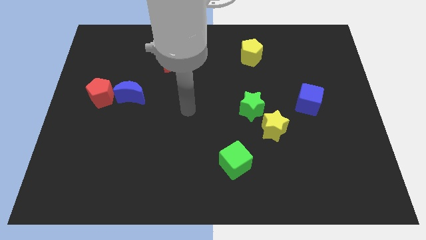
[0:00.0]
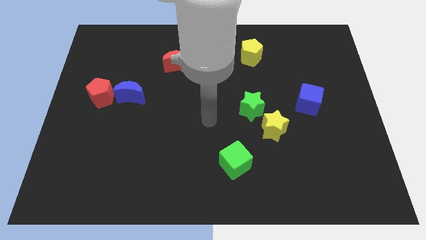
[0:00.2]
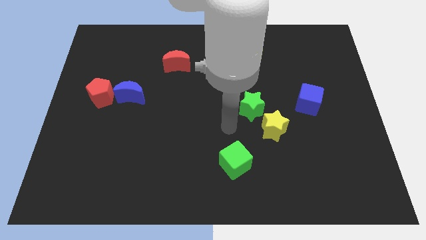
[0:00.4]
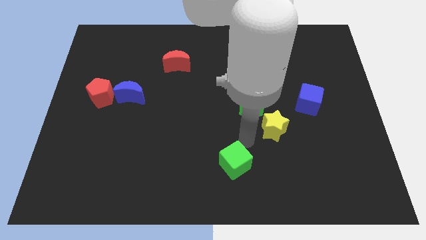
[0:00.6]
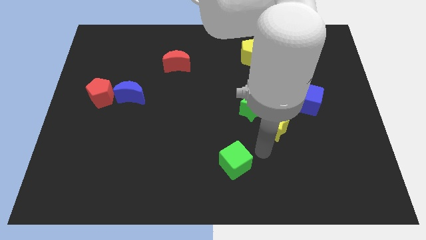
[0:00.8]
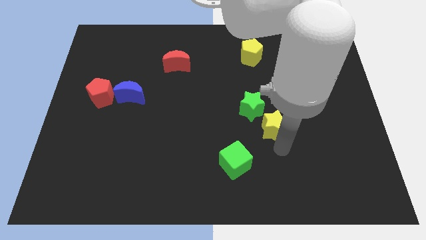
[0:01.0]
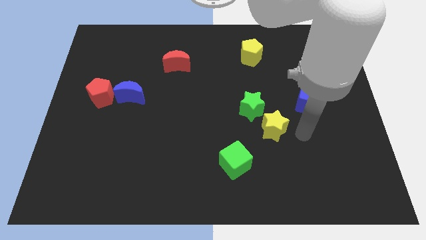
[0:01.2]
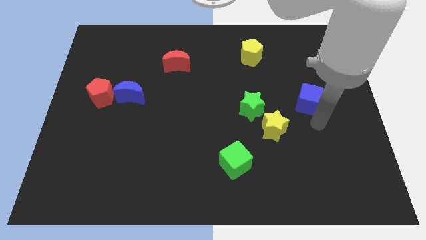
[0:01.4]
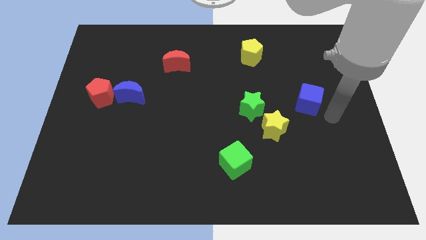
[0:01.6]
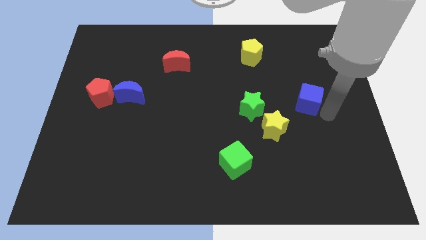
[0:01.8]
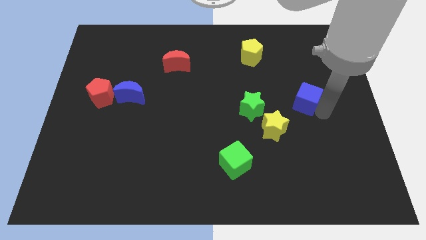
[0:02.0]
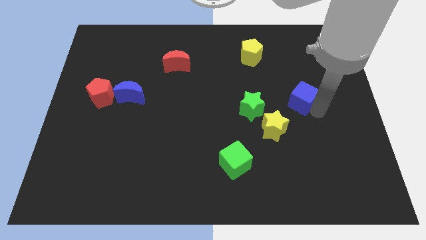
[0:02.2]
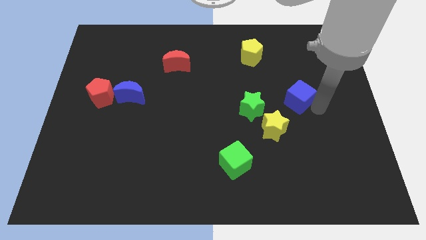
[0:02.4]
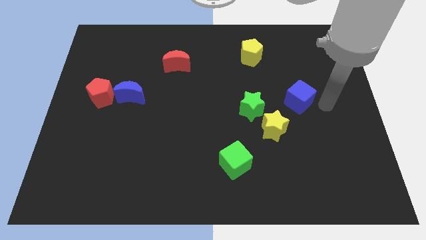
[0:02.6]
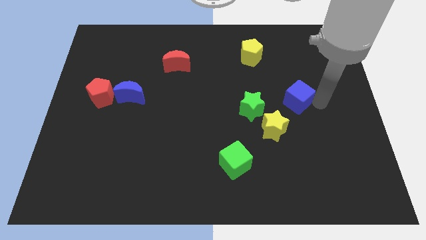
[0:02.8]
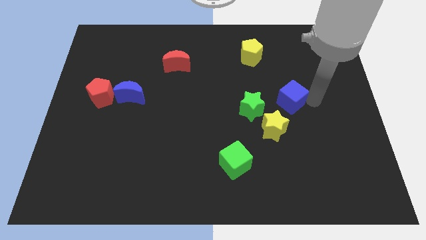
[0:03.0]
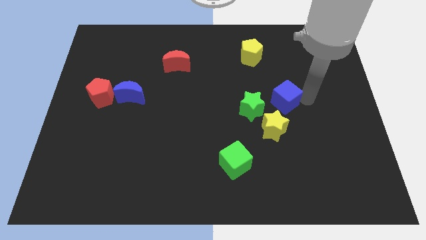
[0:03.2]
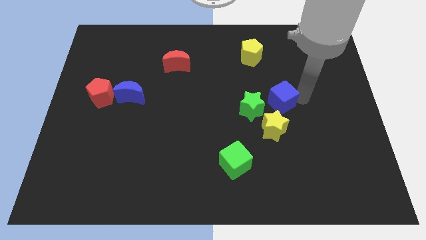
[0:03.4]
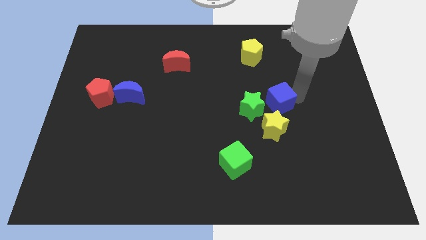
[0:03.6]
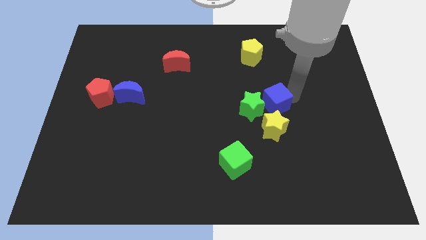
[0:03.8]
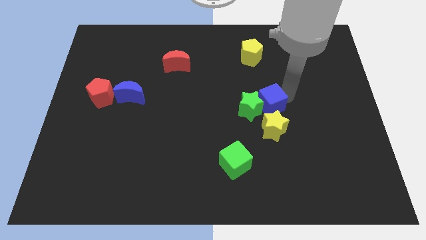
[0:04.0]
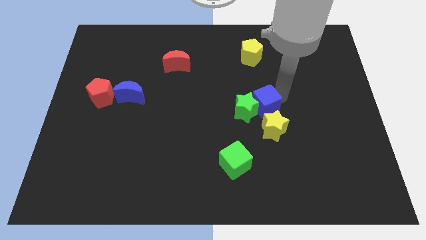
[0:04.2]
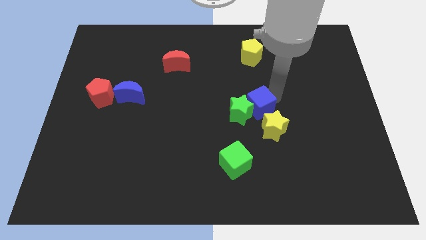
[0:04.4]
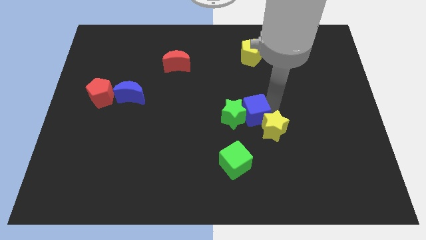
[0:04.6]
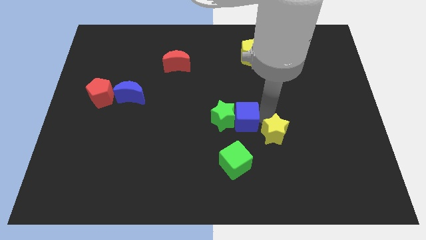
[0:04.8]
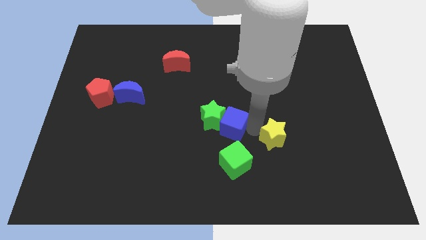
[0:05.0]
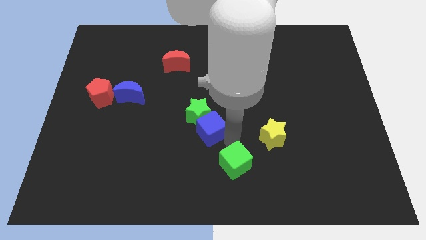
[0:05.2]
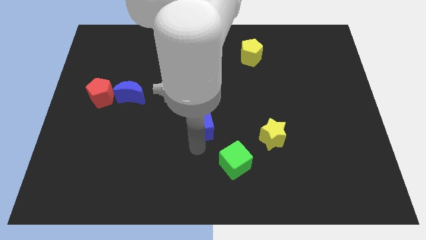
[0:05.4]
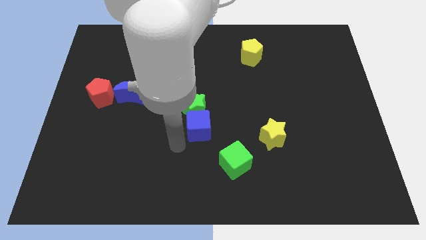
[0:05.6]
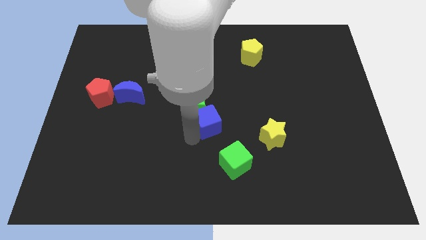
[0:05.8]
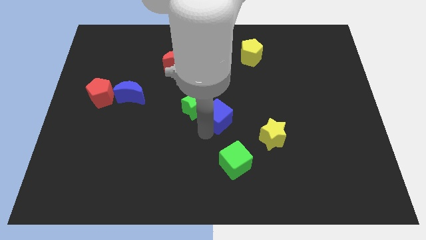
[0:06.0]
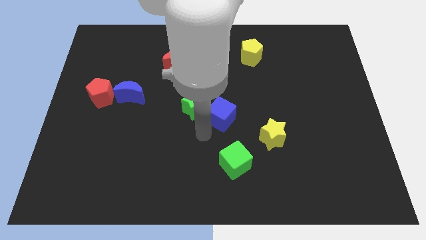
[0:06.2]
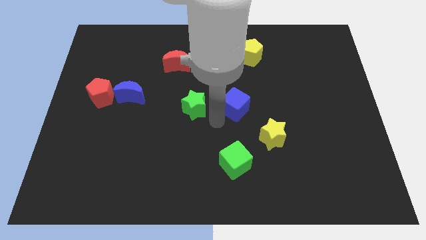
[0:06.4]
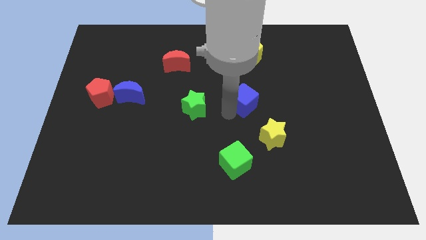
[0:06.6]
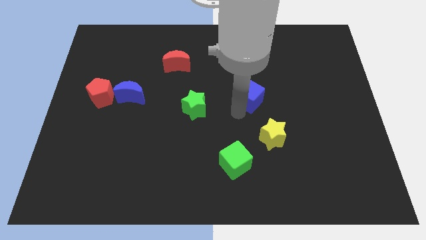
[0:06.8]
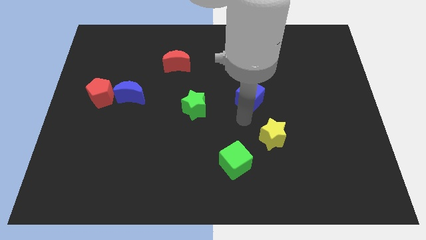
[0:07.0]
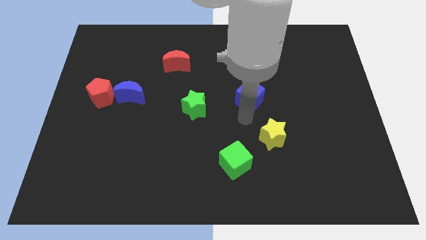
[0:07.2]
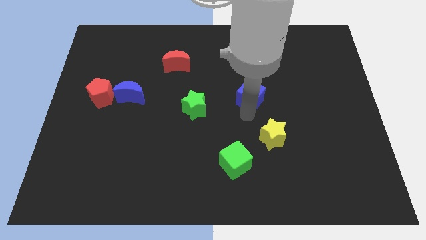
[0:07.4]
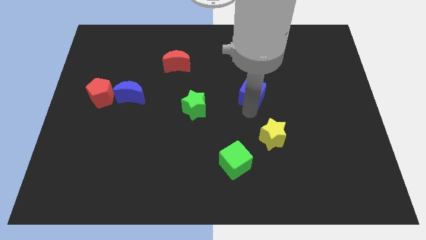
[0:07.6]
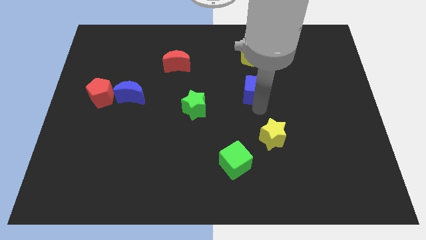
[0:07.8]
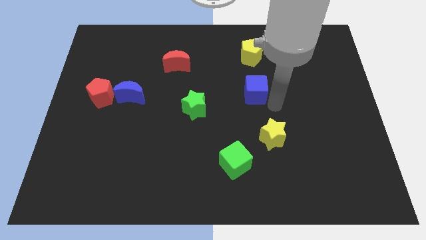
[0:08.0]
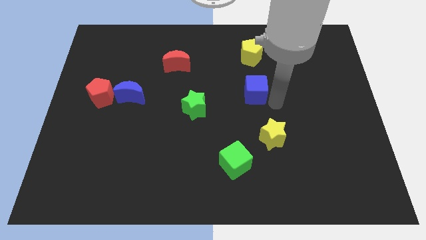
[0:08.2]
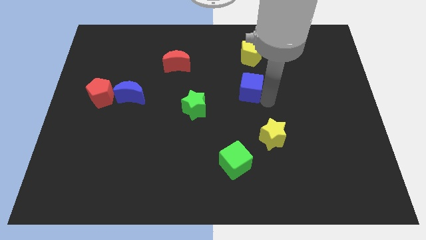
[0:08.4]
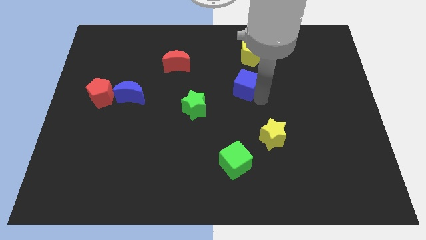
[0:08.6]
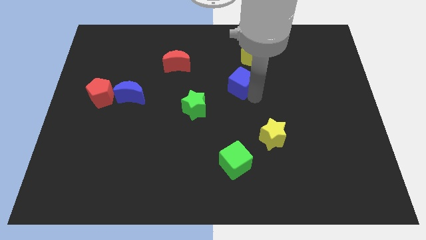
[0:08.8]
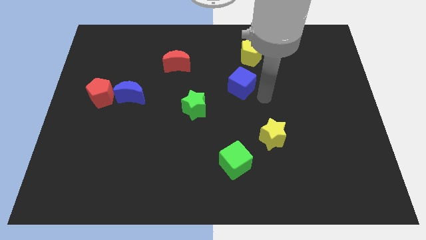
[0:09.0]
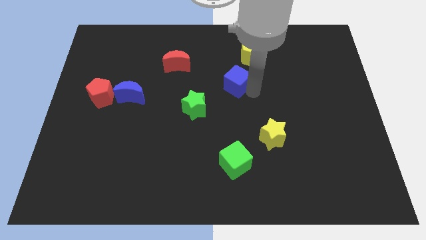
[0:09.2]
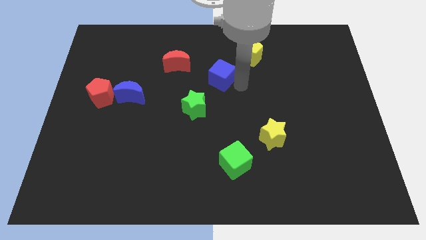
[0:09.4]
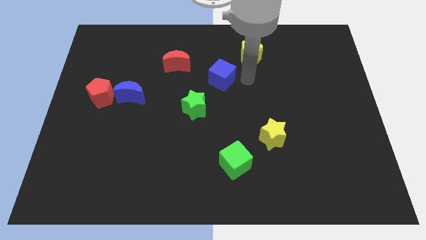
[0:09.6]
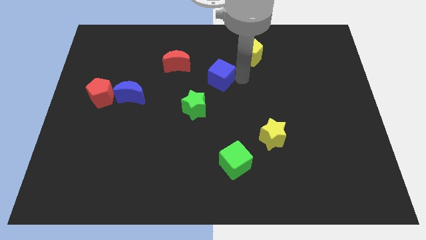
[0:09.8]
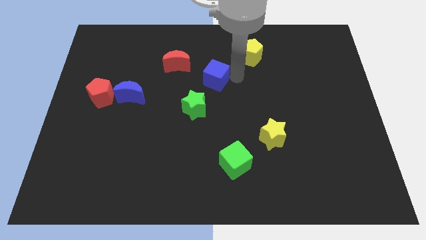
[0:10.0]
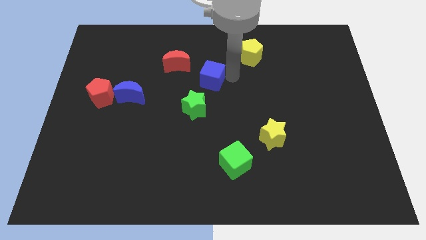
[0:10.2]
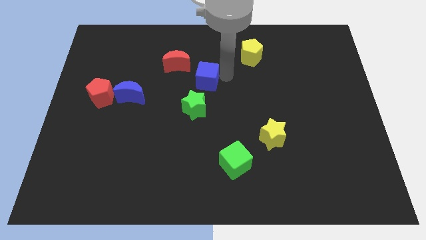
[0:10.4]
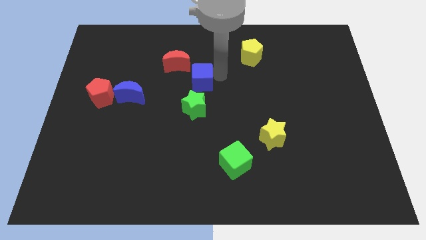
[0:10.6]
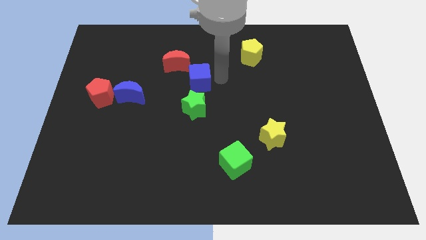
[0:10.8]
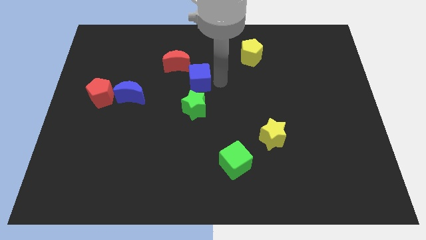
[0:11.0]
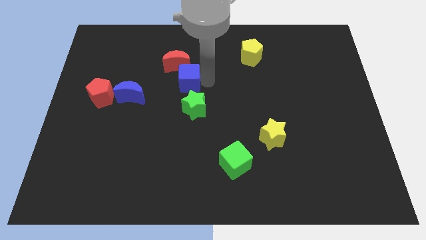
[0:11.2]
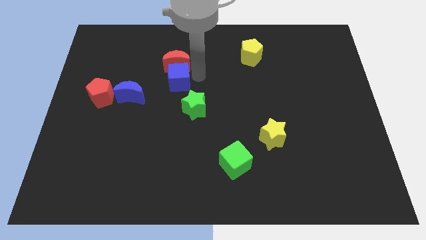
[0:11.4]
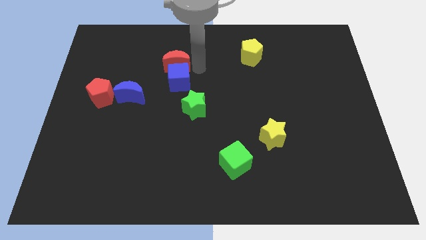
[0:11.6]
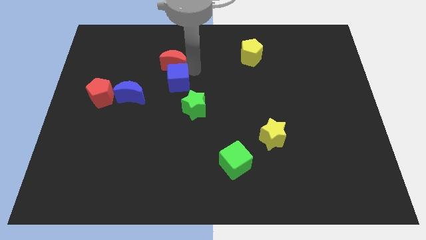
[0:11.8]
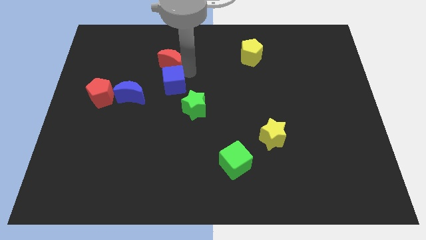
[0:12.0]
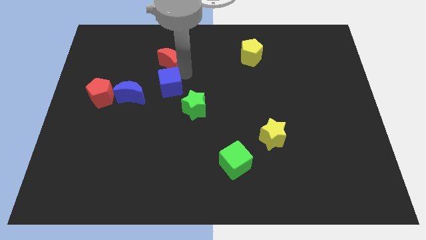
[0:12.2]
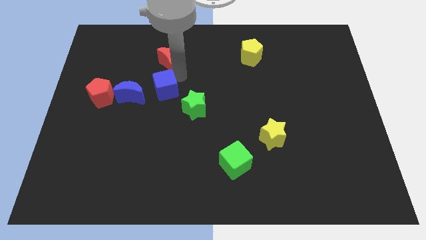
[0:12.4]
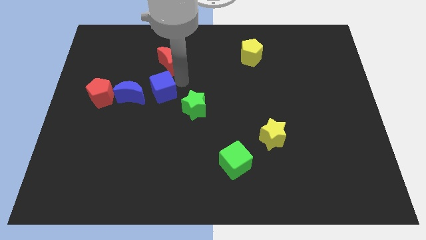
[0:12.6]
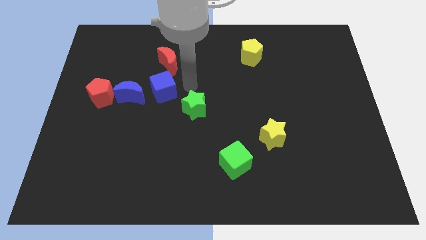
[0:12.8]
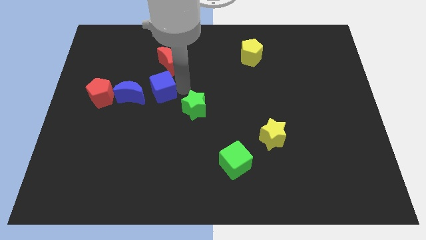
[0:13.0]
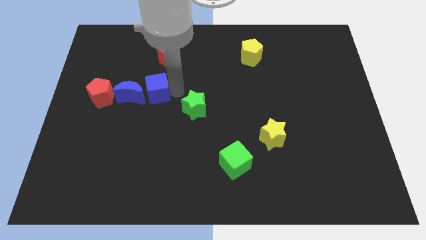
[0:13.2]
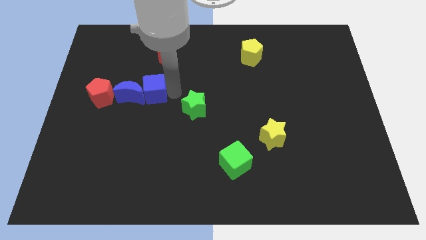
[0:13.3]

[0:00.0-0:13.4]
put the blue cube next to the blue moon

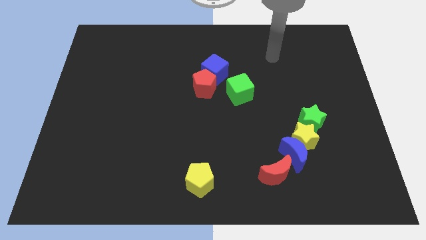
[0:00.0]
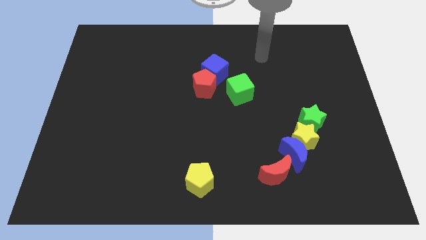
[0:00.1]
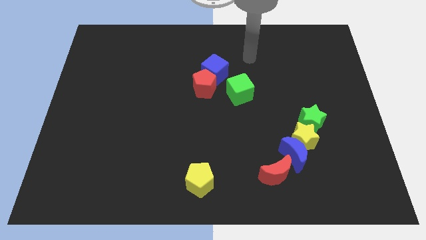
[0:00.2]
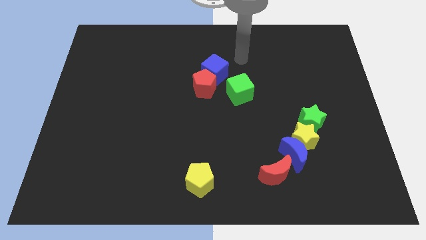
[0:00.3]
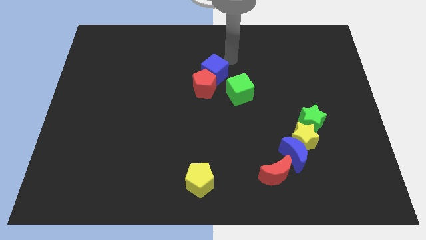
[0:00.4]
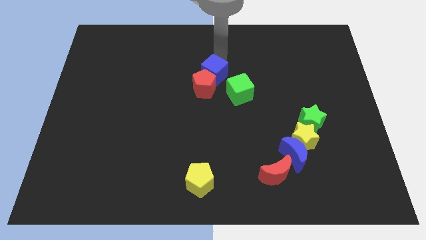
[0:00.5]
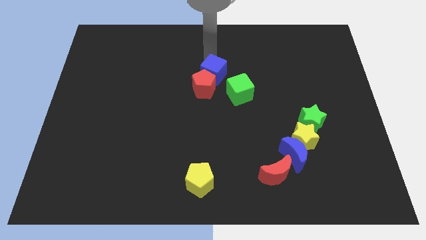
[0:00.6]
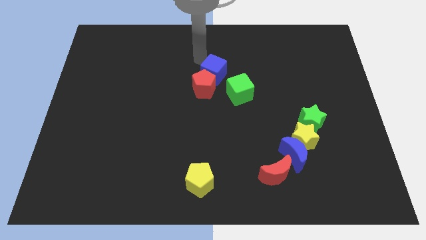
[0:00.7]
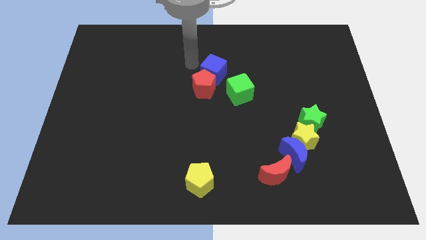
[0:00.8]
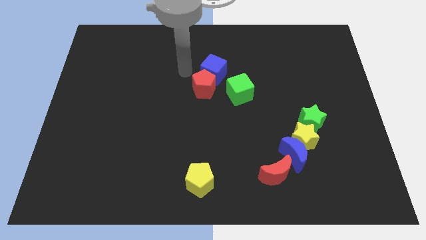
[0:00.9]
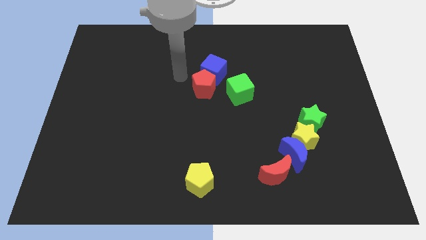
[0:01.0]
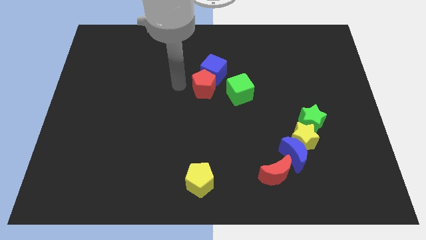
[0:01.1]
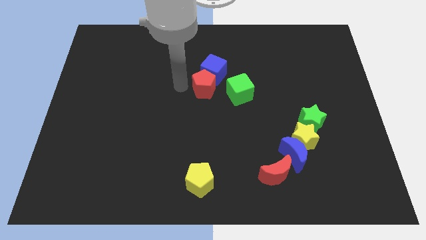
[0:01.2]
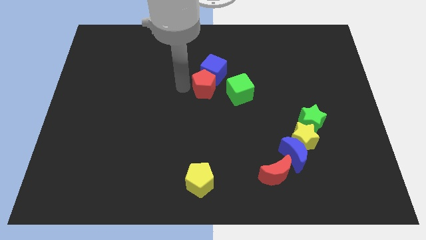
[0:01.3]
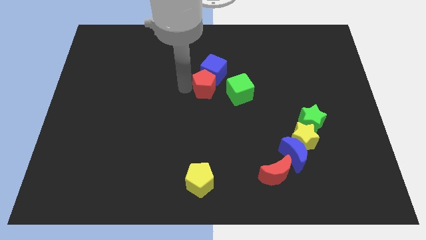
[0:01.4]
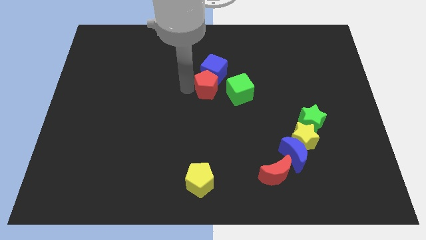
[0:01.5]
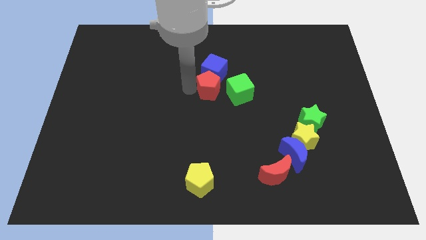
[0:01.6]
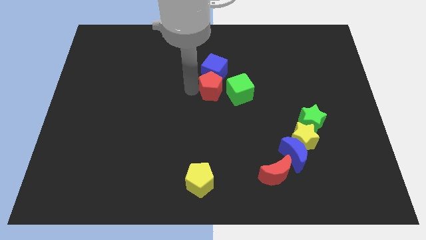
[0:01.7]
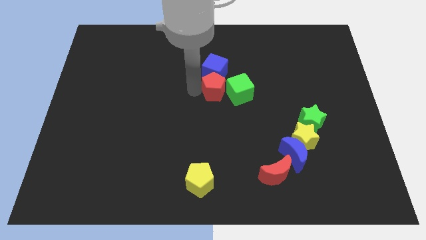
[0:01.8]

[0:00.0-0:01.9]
slide the red pentagon to the green cube
